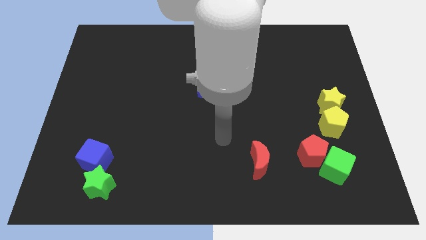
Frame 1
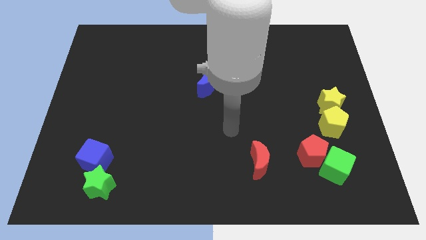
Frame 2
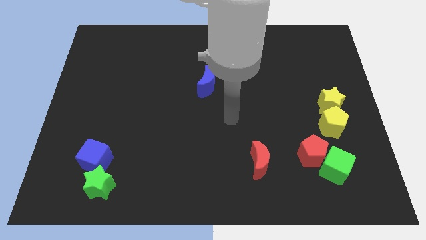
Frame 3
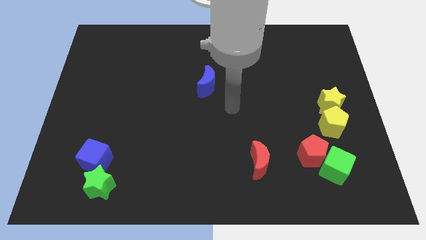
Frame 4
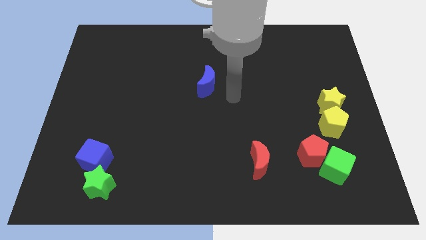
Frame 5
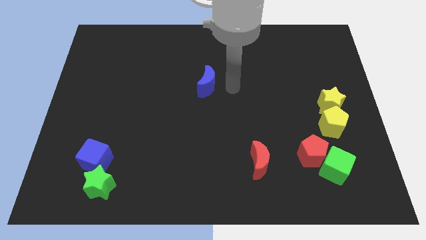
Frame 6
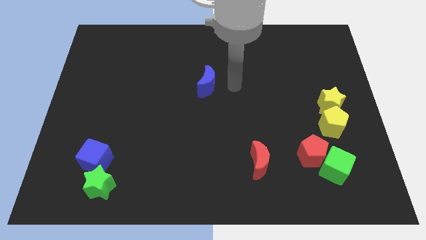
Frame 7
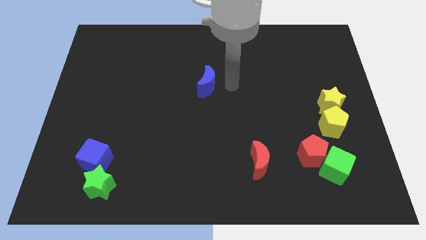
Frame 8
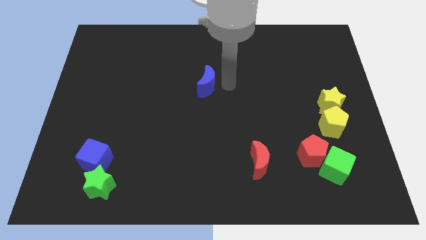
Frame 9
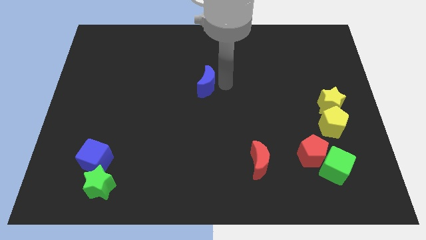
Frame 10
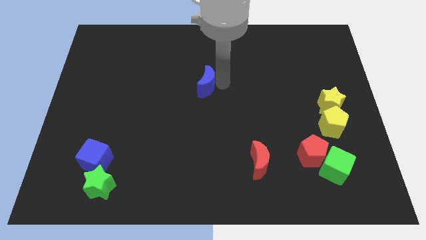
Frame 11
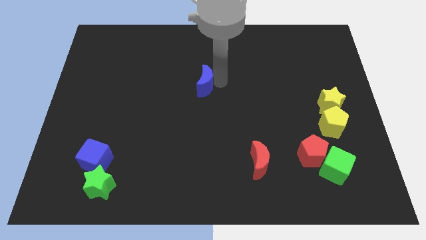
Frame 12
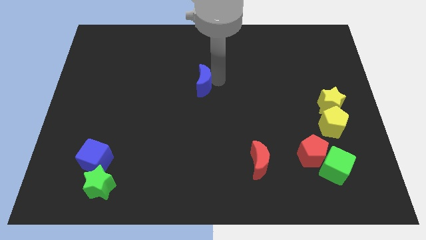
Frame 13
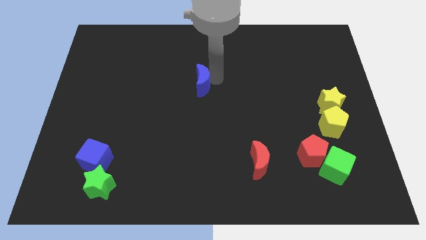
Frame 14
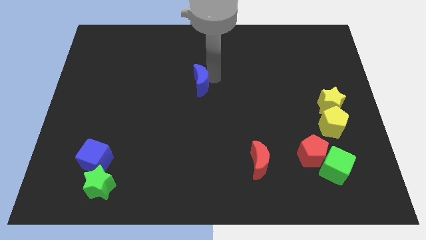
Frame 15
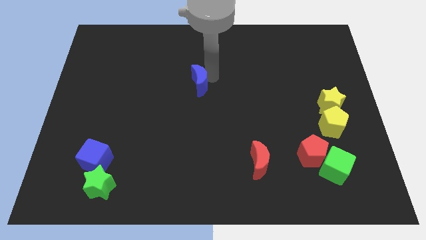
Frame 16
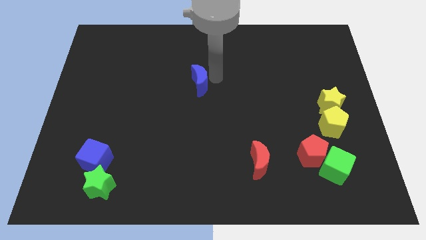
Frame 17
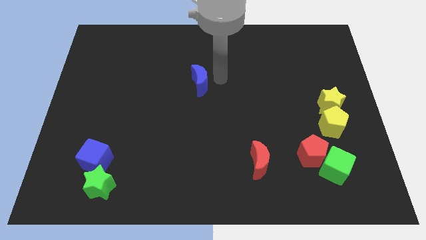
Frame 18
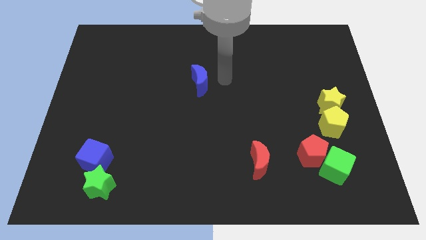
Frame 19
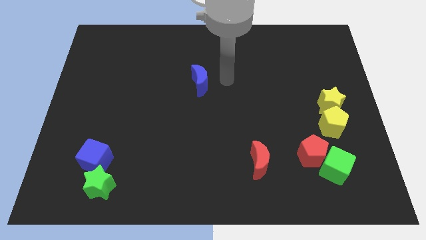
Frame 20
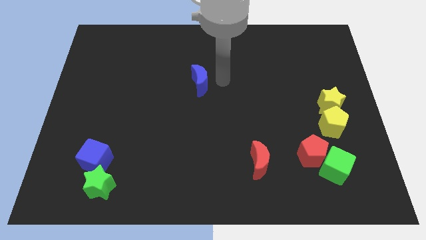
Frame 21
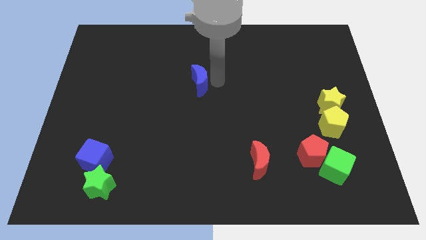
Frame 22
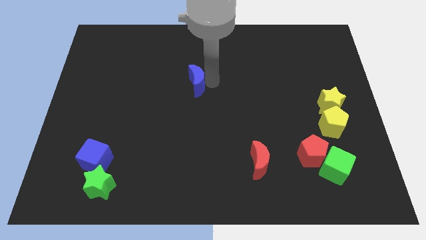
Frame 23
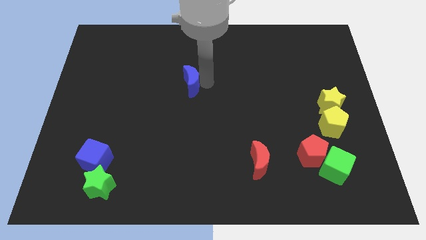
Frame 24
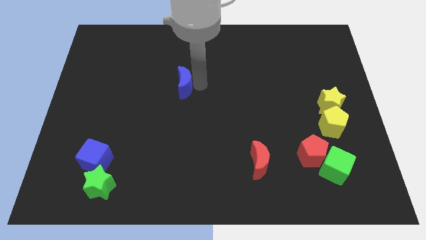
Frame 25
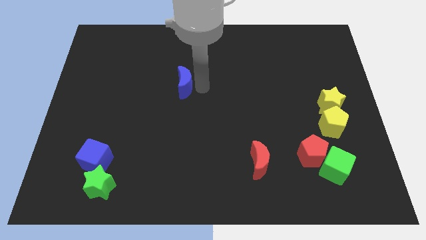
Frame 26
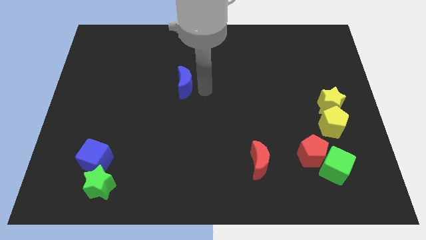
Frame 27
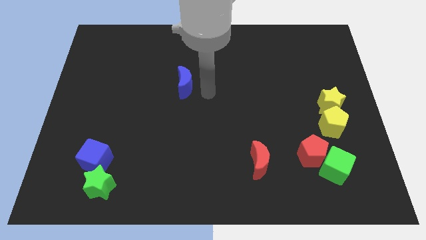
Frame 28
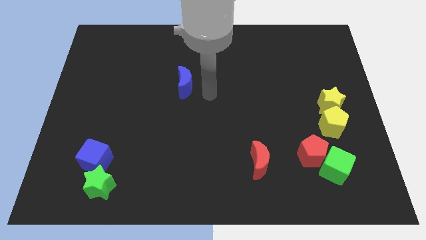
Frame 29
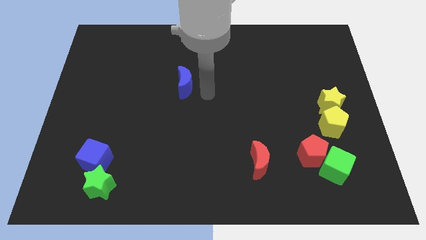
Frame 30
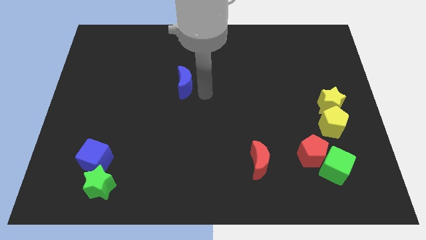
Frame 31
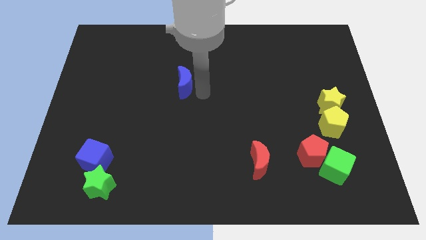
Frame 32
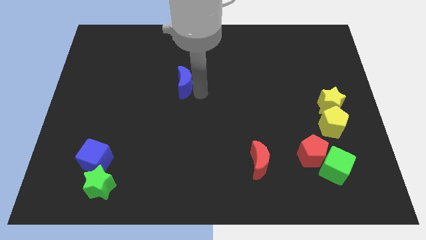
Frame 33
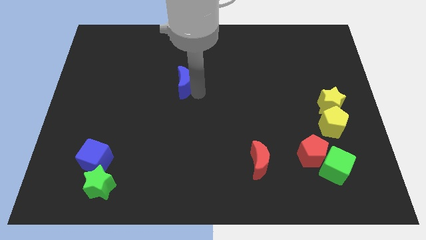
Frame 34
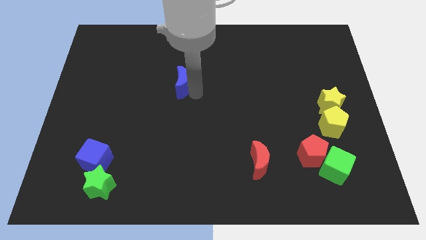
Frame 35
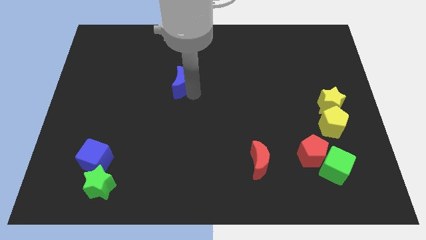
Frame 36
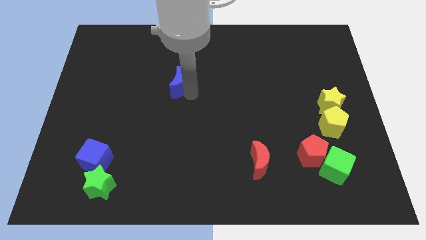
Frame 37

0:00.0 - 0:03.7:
push the blue moon to the left a bit

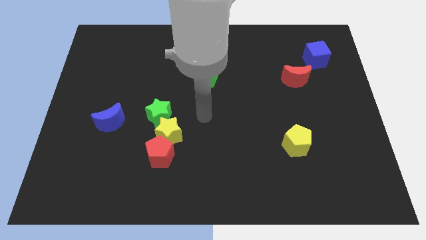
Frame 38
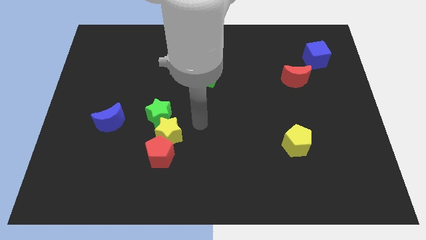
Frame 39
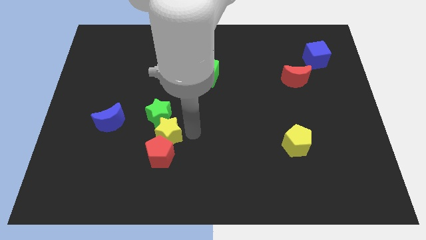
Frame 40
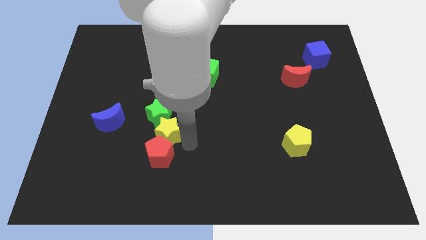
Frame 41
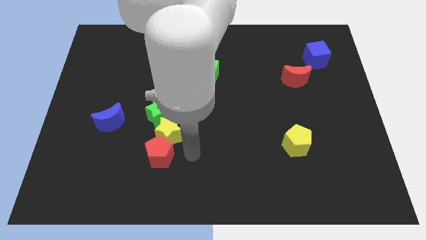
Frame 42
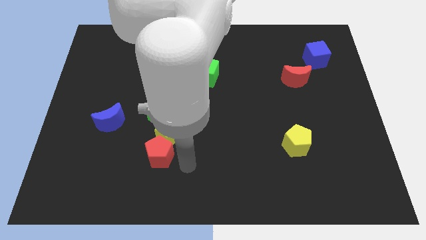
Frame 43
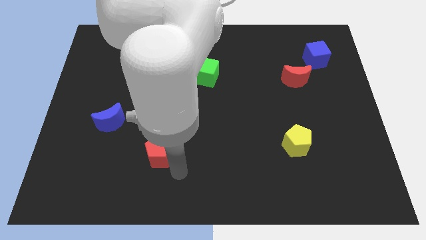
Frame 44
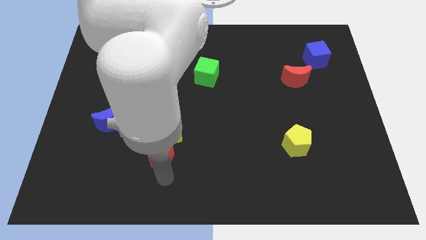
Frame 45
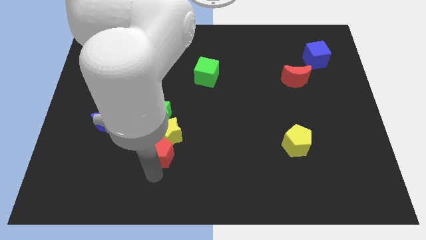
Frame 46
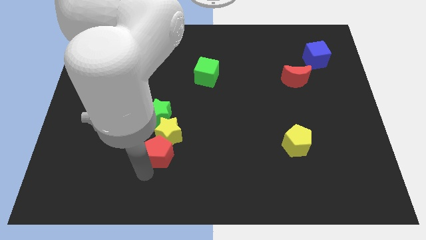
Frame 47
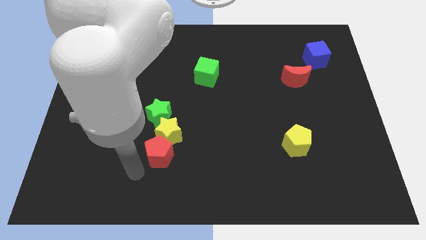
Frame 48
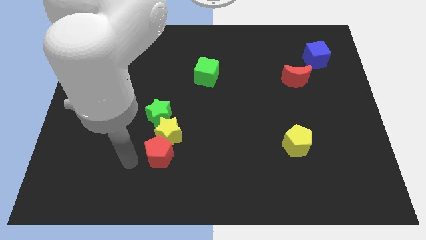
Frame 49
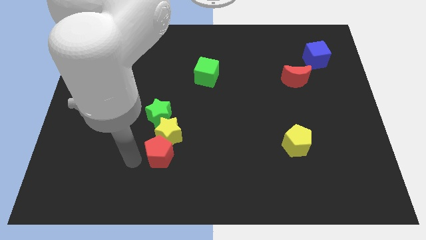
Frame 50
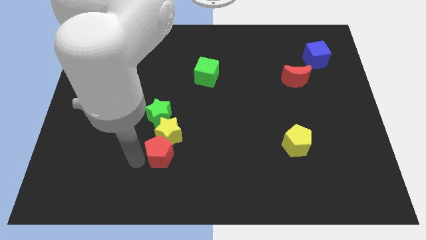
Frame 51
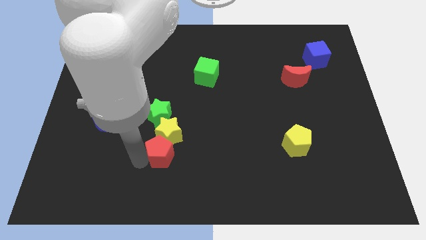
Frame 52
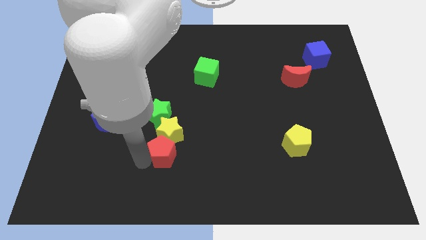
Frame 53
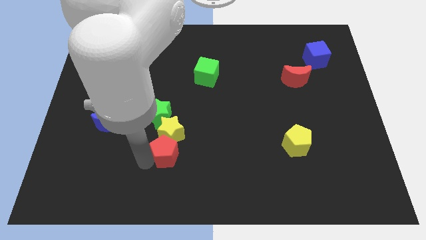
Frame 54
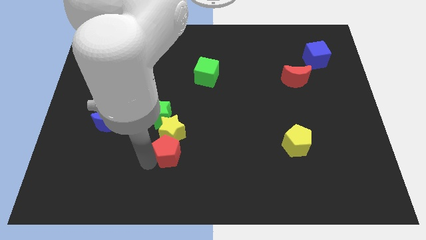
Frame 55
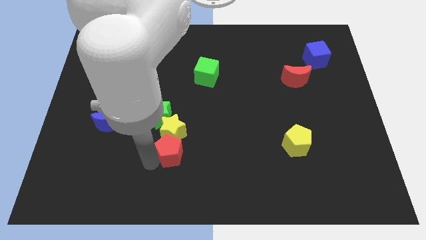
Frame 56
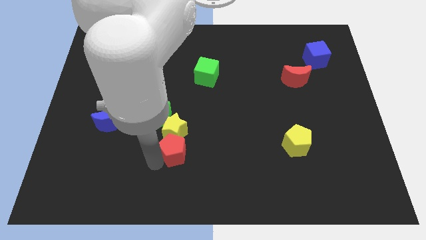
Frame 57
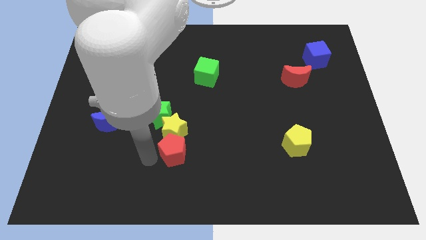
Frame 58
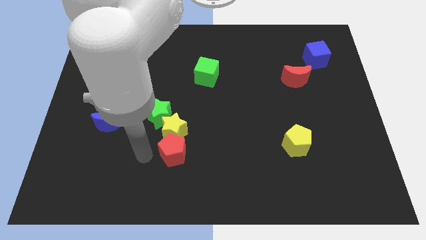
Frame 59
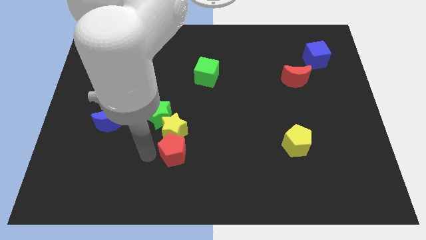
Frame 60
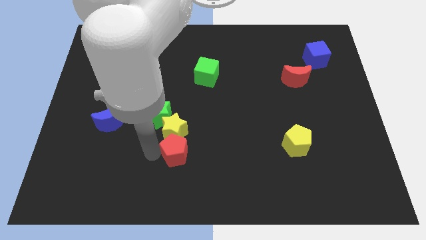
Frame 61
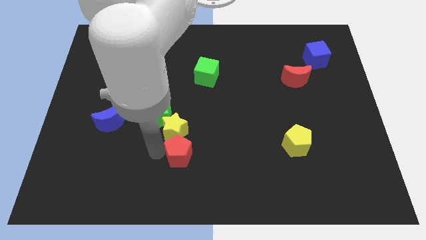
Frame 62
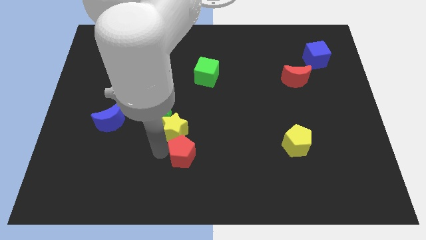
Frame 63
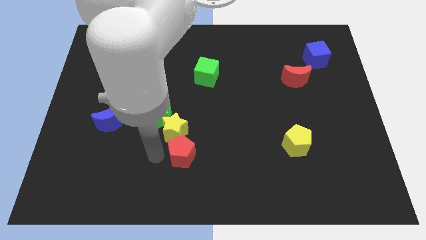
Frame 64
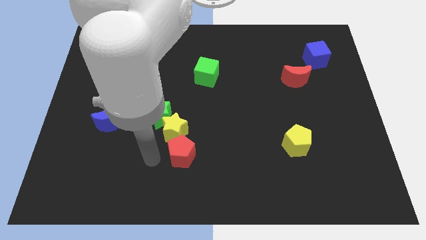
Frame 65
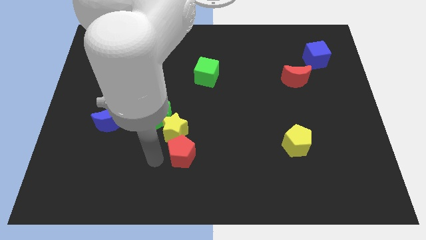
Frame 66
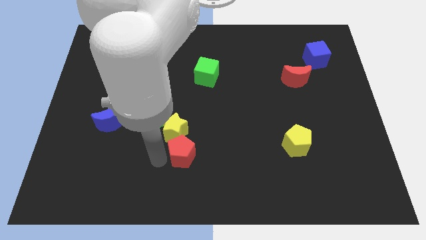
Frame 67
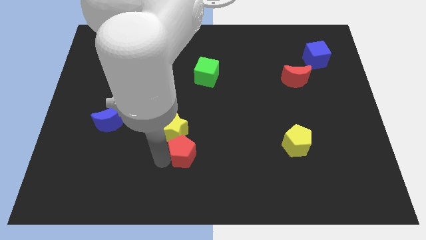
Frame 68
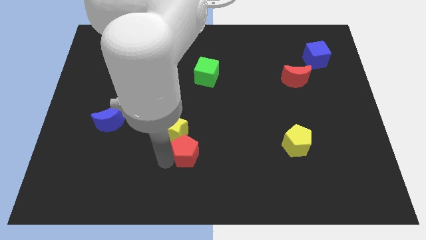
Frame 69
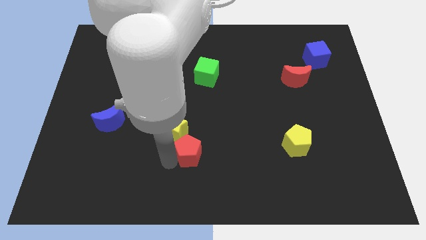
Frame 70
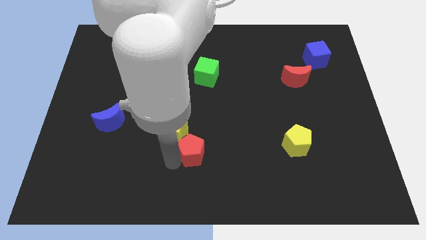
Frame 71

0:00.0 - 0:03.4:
push the red pentagon a bit right

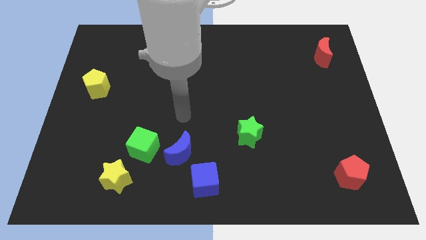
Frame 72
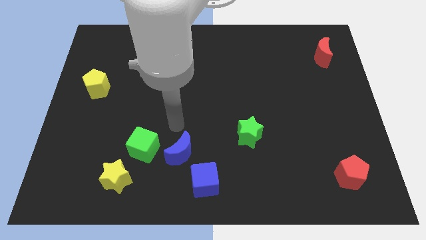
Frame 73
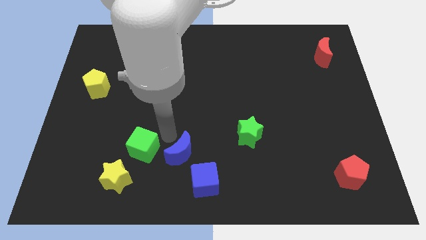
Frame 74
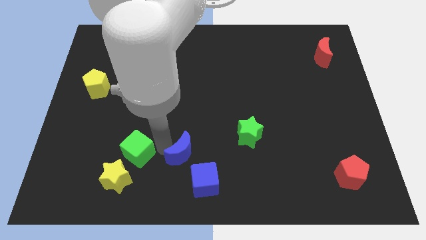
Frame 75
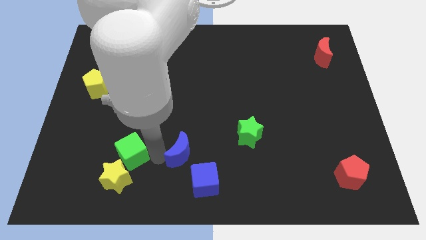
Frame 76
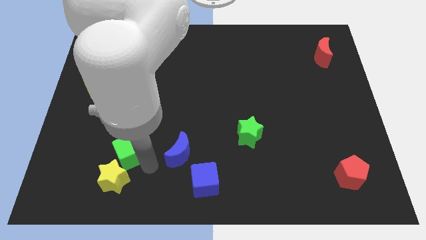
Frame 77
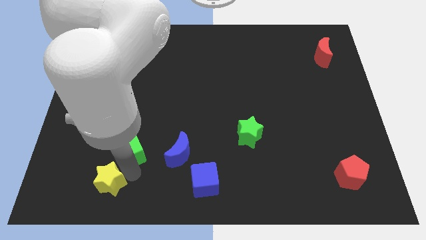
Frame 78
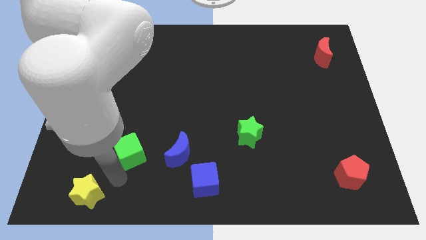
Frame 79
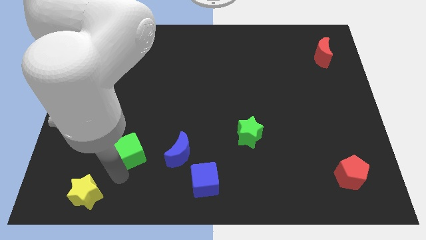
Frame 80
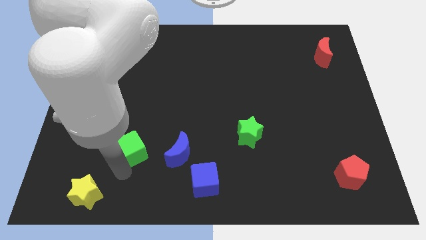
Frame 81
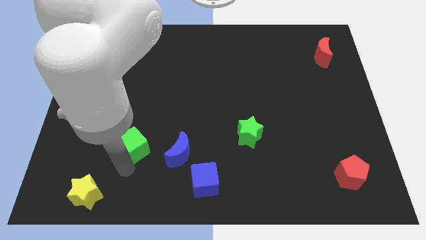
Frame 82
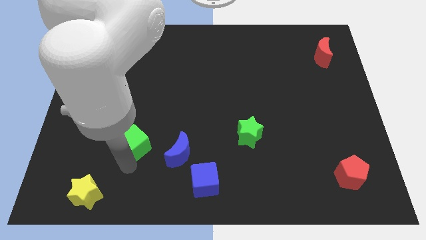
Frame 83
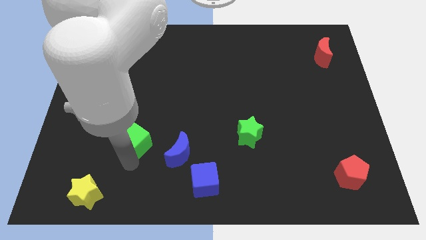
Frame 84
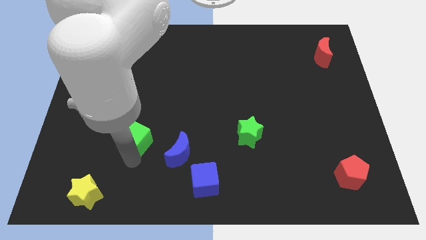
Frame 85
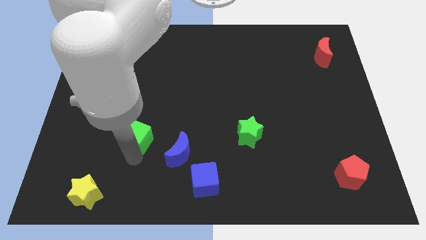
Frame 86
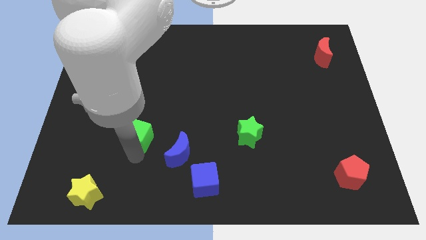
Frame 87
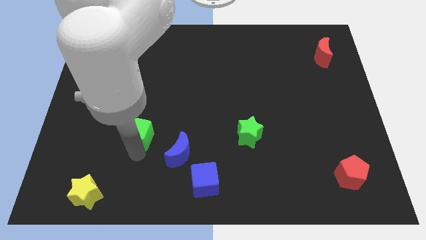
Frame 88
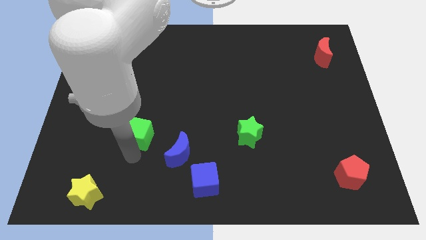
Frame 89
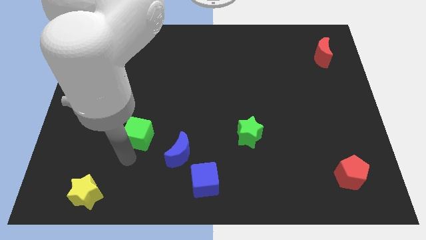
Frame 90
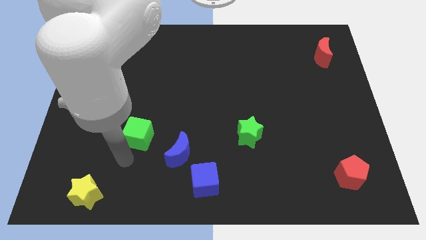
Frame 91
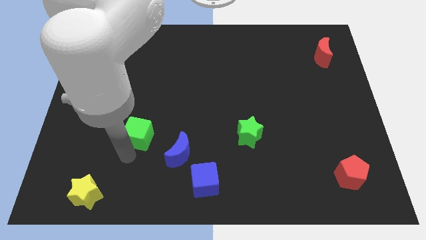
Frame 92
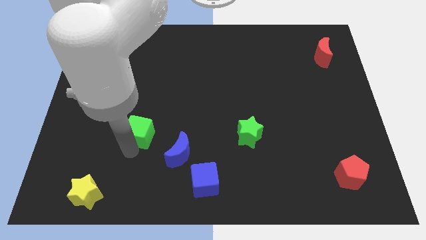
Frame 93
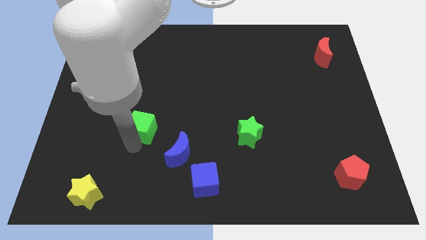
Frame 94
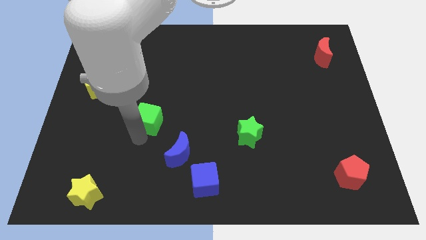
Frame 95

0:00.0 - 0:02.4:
push the green cube upwards slightly
